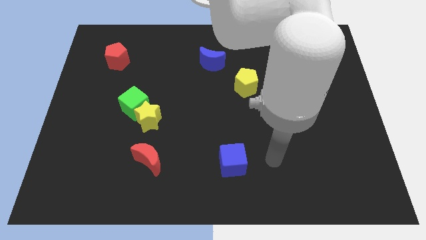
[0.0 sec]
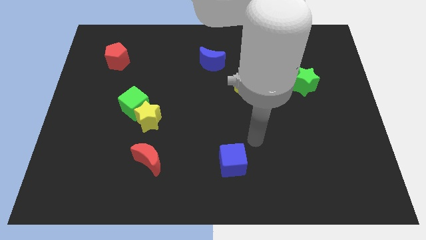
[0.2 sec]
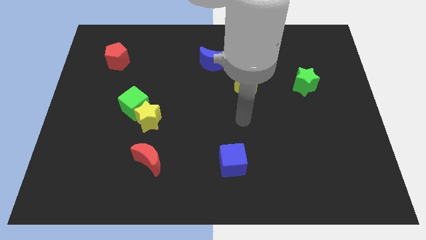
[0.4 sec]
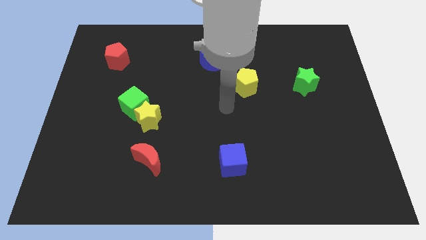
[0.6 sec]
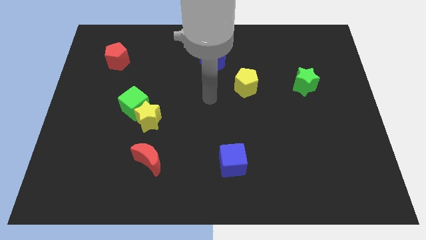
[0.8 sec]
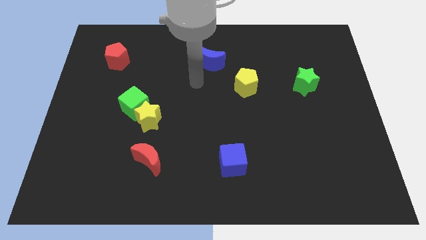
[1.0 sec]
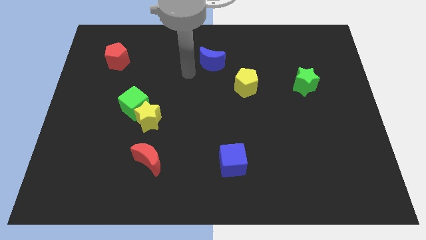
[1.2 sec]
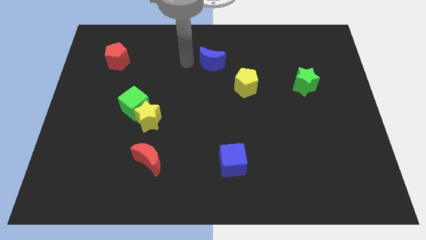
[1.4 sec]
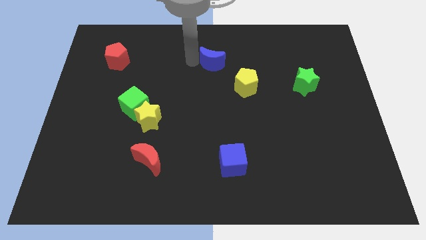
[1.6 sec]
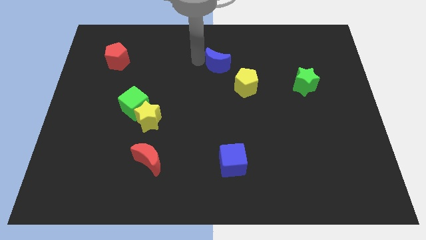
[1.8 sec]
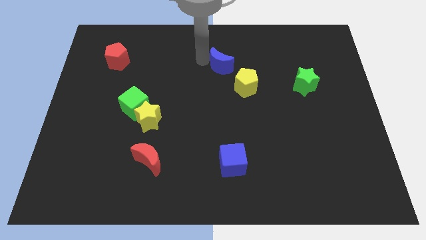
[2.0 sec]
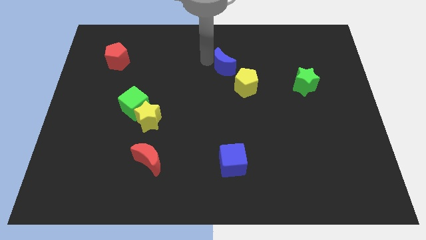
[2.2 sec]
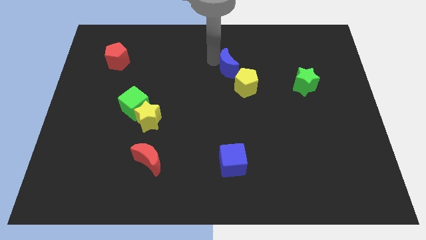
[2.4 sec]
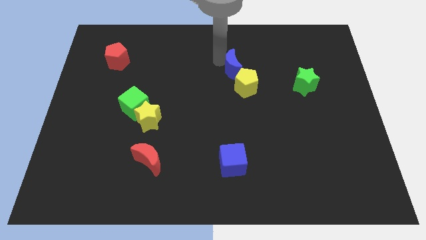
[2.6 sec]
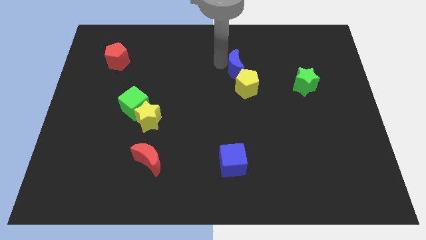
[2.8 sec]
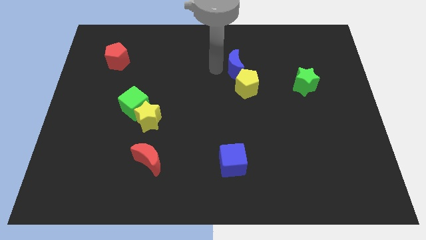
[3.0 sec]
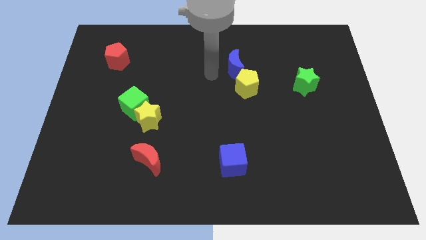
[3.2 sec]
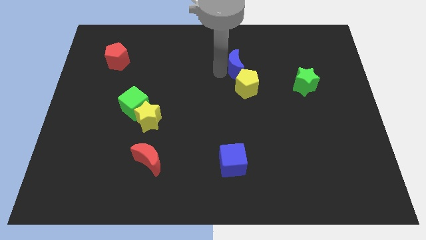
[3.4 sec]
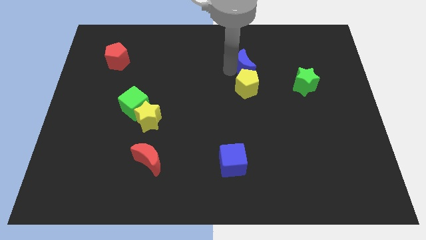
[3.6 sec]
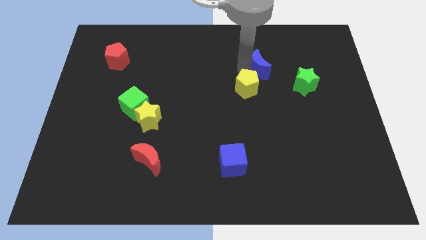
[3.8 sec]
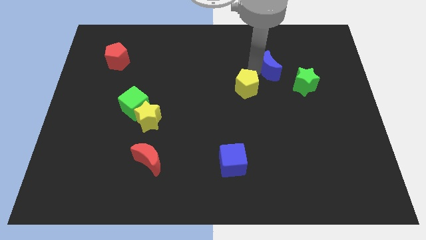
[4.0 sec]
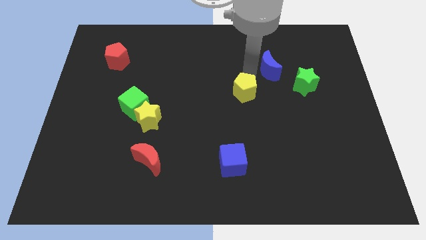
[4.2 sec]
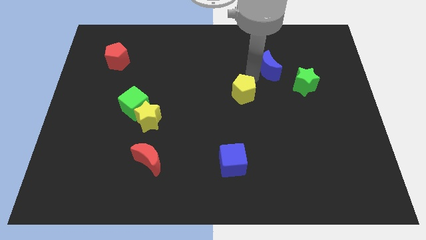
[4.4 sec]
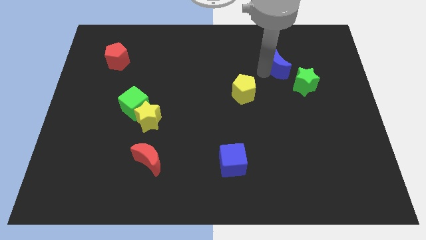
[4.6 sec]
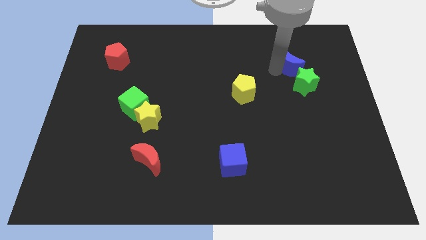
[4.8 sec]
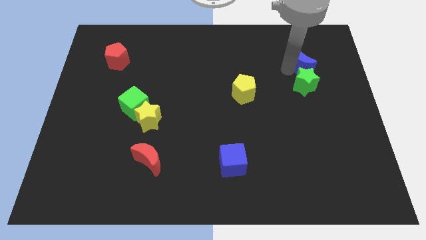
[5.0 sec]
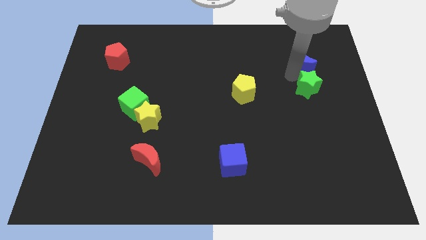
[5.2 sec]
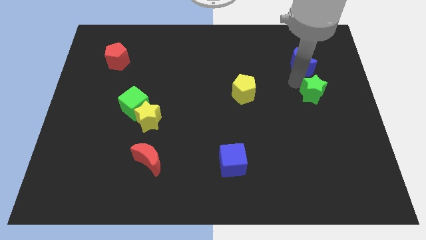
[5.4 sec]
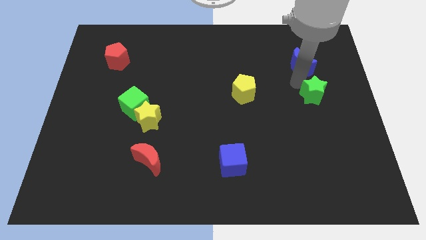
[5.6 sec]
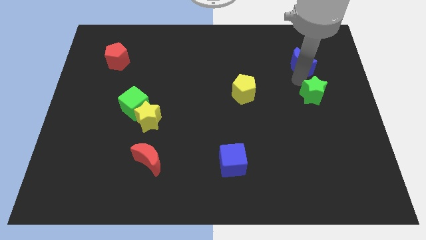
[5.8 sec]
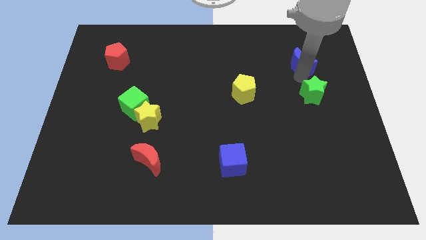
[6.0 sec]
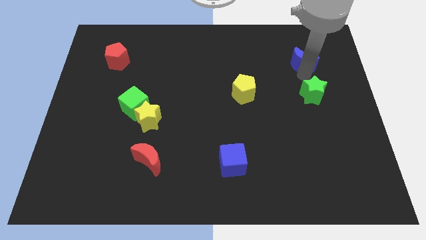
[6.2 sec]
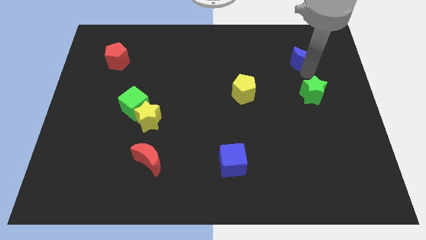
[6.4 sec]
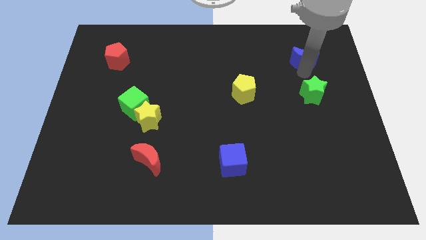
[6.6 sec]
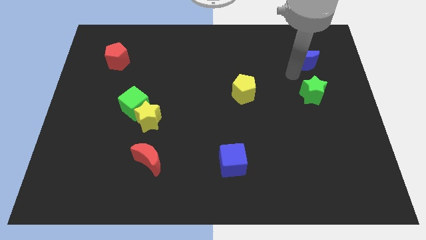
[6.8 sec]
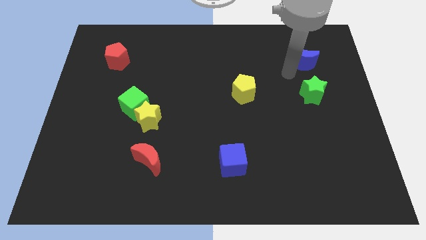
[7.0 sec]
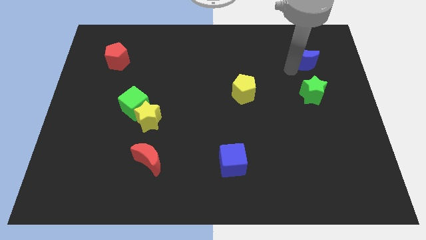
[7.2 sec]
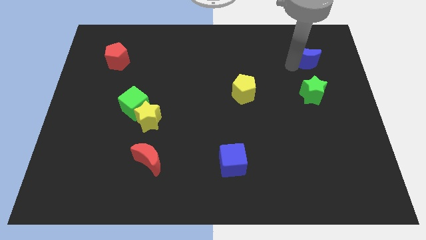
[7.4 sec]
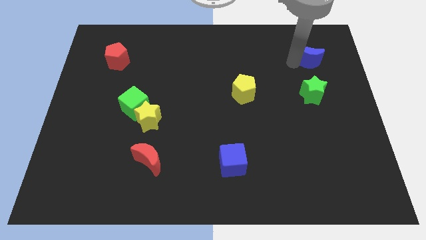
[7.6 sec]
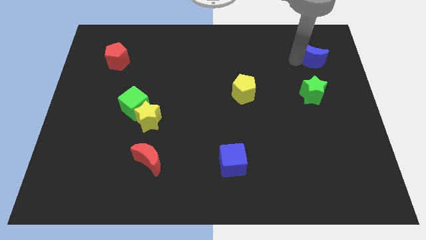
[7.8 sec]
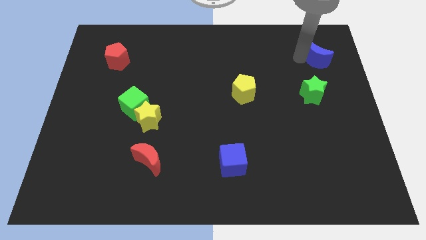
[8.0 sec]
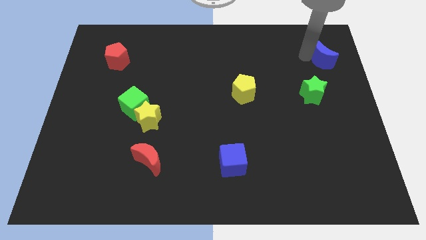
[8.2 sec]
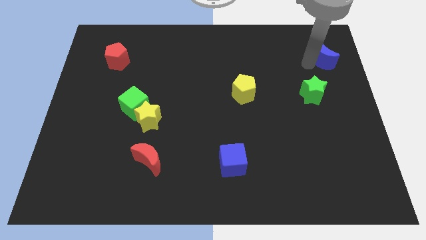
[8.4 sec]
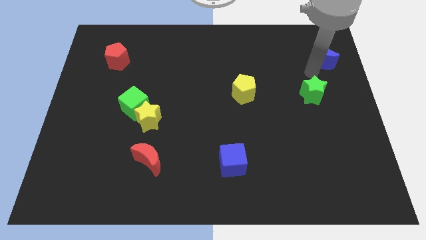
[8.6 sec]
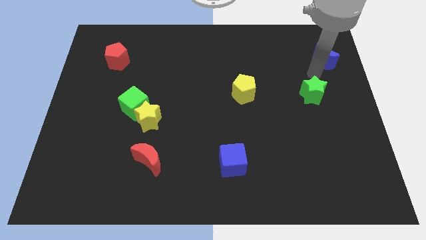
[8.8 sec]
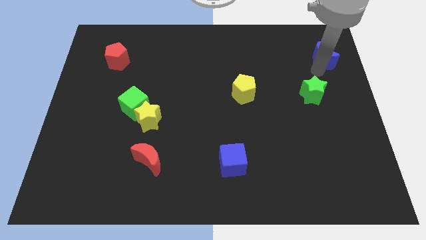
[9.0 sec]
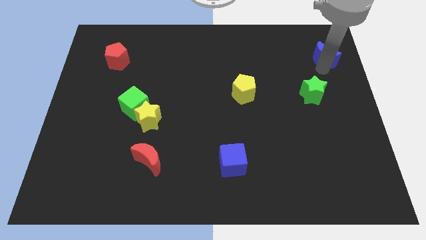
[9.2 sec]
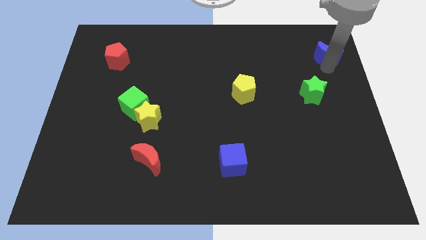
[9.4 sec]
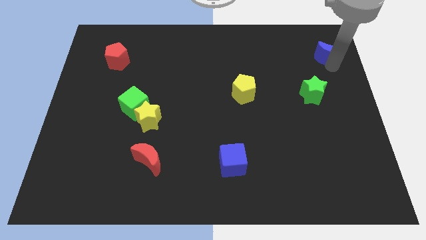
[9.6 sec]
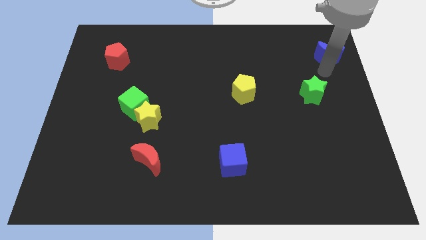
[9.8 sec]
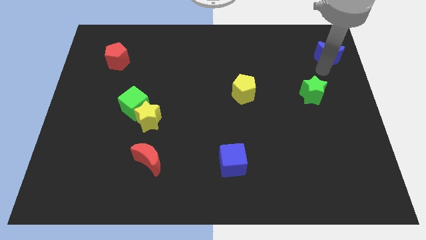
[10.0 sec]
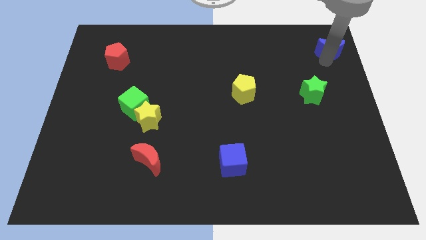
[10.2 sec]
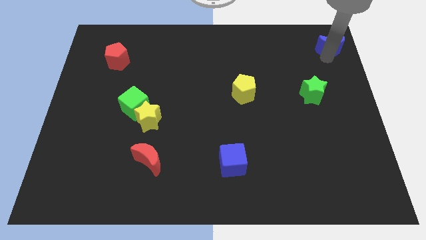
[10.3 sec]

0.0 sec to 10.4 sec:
push the blue moon to the top right
